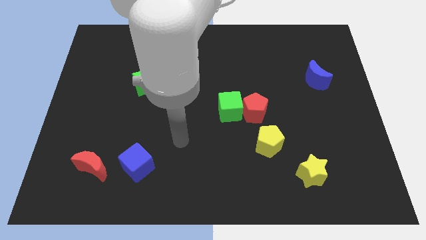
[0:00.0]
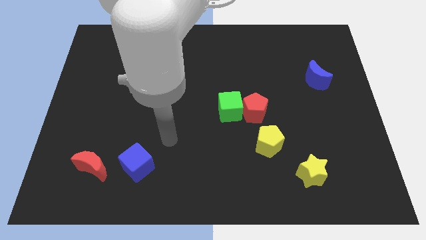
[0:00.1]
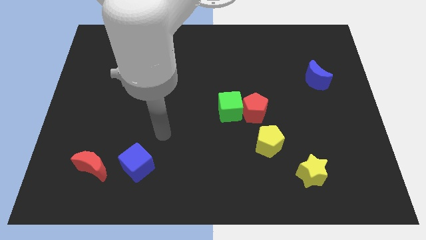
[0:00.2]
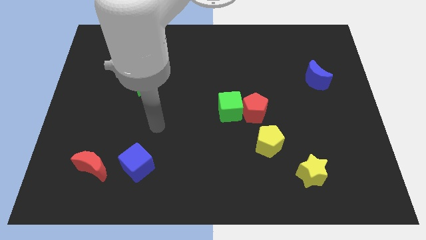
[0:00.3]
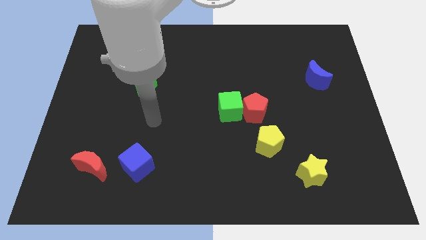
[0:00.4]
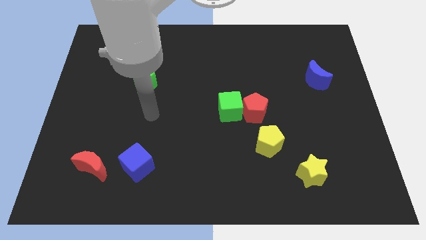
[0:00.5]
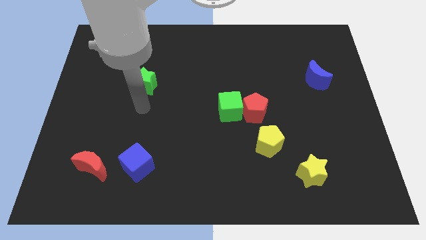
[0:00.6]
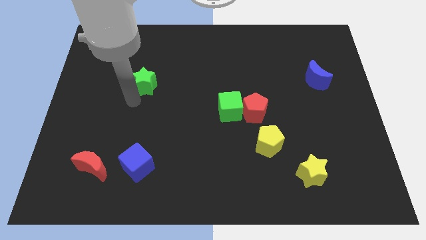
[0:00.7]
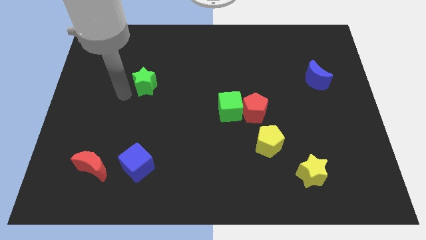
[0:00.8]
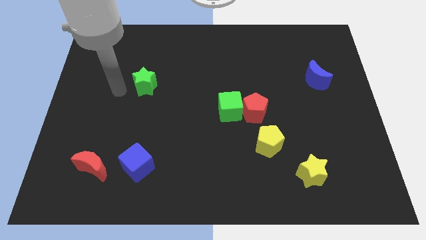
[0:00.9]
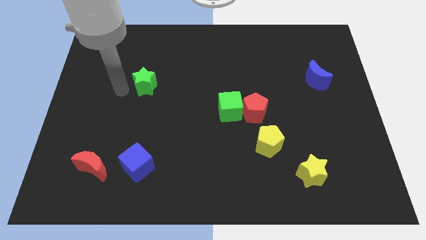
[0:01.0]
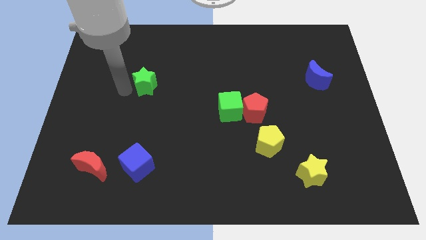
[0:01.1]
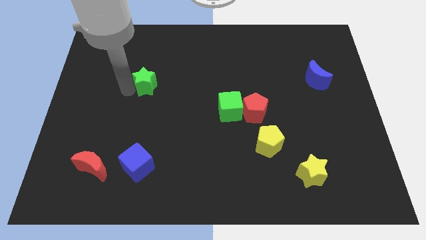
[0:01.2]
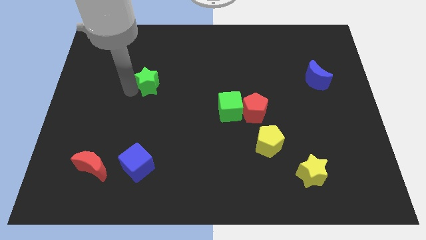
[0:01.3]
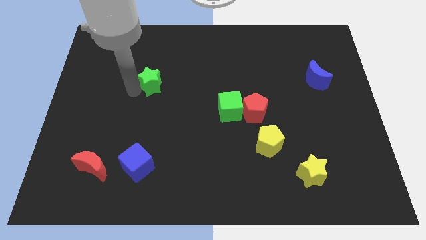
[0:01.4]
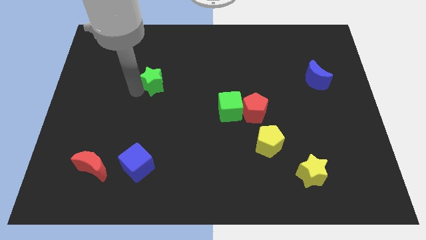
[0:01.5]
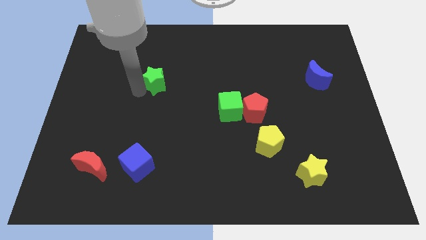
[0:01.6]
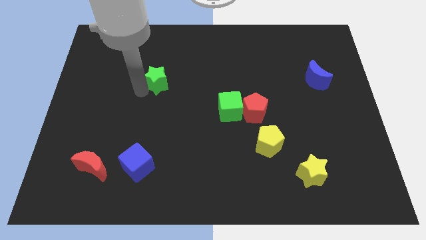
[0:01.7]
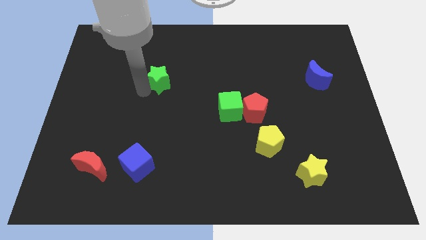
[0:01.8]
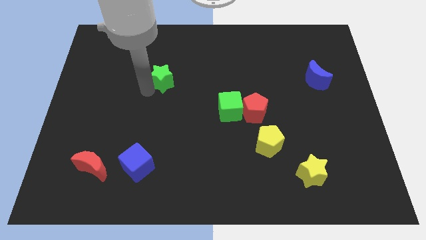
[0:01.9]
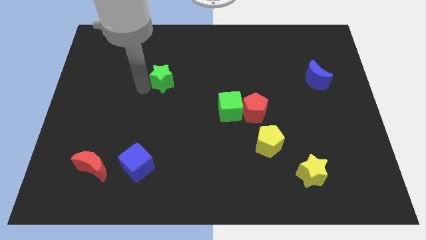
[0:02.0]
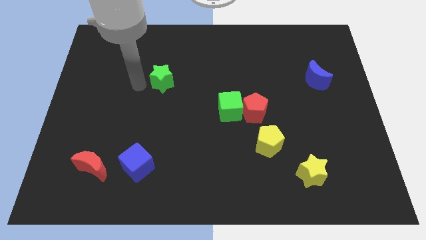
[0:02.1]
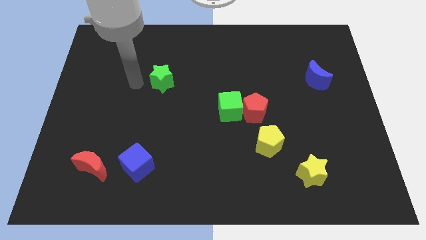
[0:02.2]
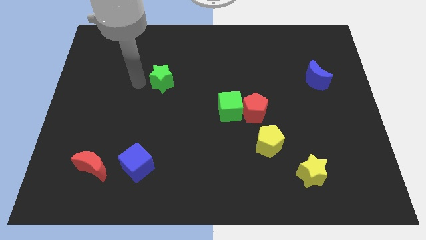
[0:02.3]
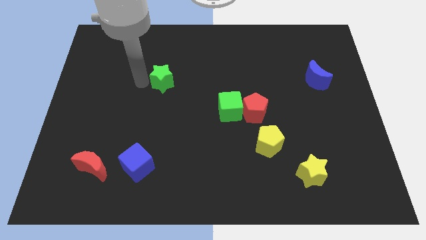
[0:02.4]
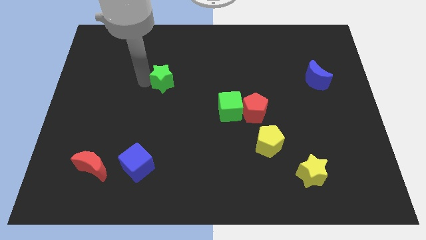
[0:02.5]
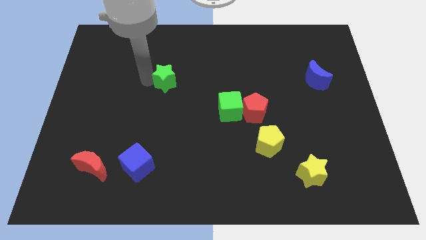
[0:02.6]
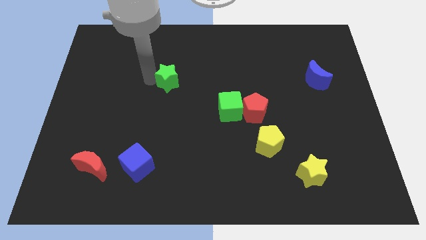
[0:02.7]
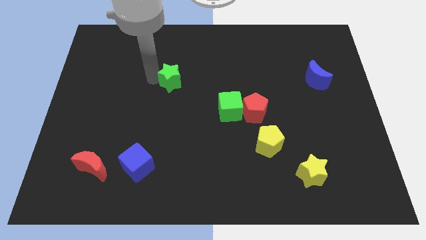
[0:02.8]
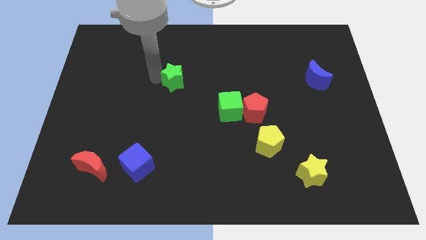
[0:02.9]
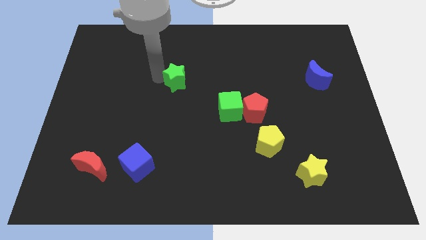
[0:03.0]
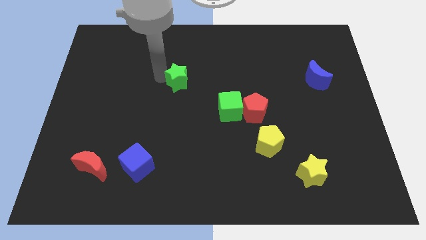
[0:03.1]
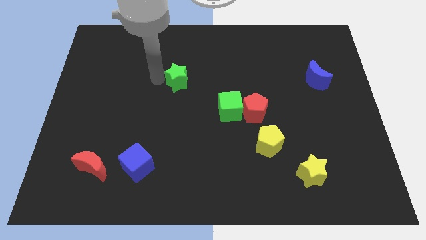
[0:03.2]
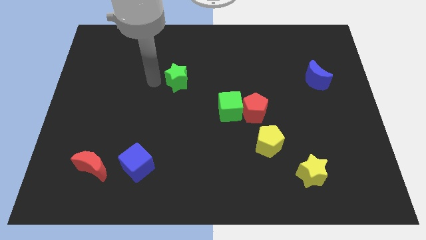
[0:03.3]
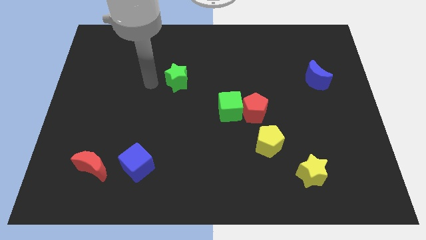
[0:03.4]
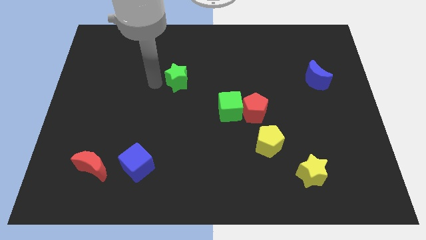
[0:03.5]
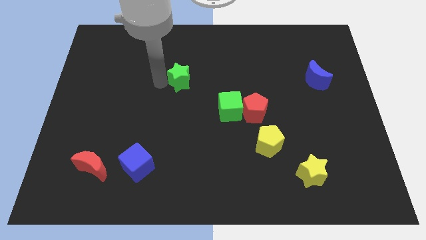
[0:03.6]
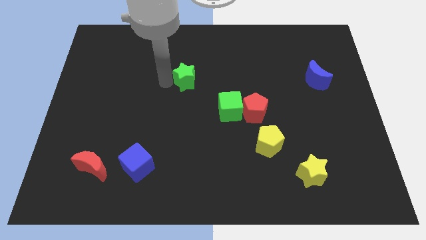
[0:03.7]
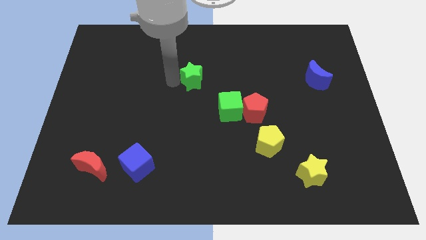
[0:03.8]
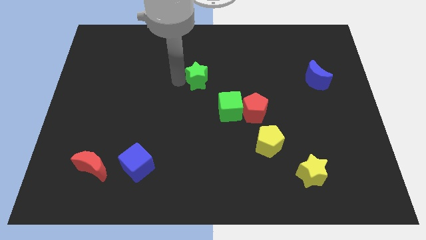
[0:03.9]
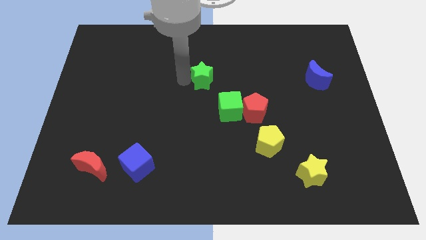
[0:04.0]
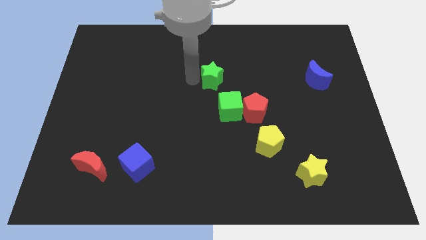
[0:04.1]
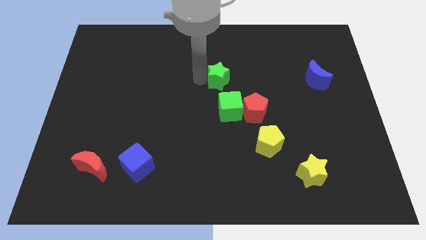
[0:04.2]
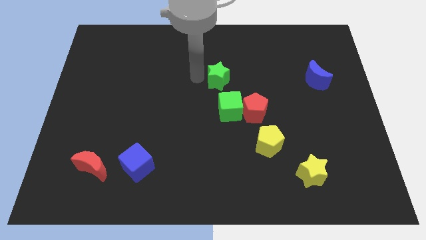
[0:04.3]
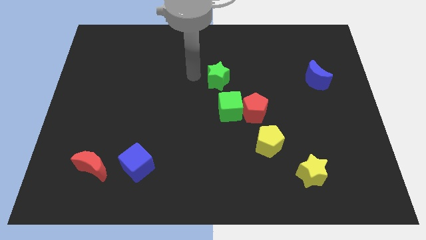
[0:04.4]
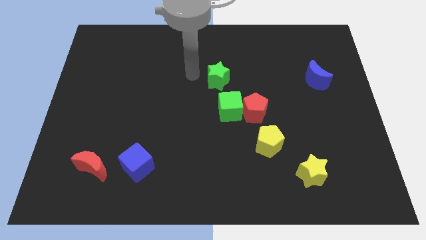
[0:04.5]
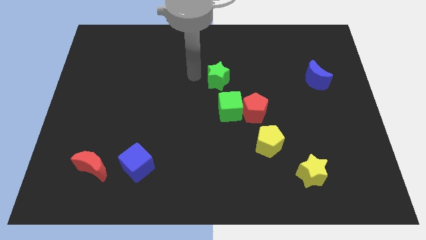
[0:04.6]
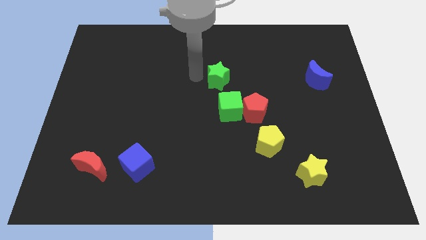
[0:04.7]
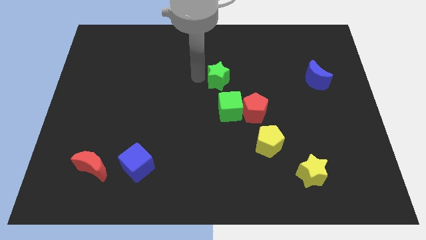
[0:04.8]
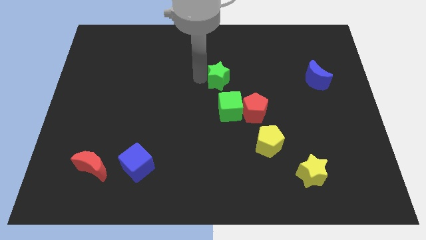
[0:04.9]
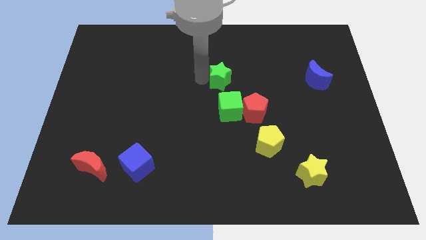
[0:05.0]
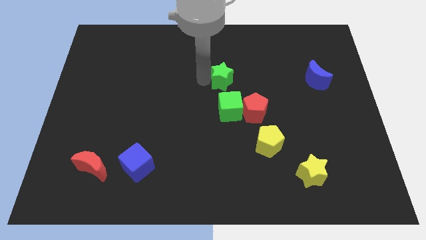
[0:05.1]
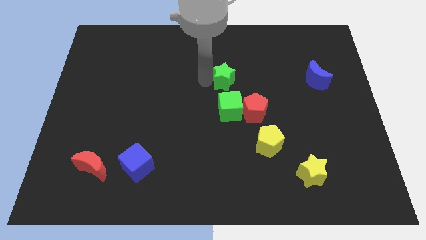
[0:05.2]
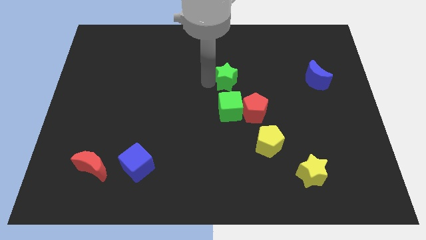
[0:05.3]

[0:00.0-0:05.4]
push the green star to the right

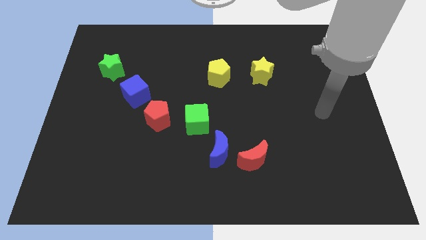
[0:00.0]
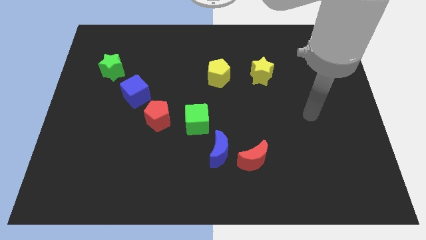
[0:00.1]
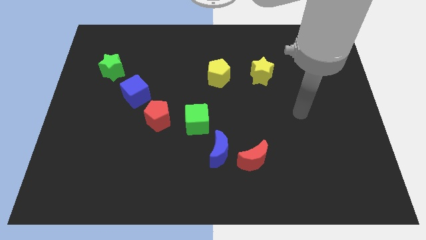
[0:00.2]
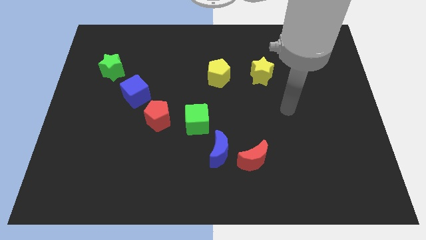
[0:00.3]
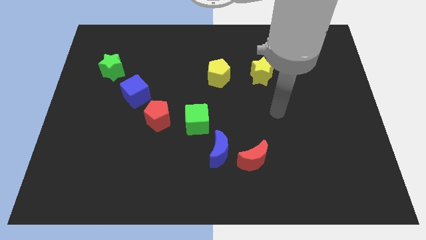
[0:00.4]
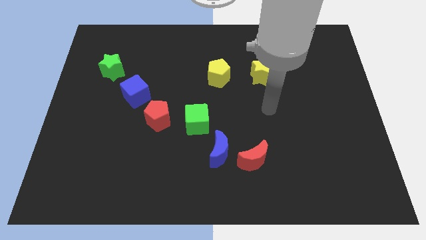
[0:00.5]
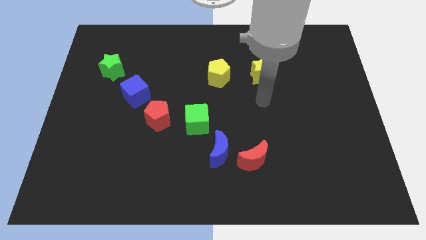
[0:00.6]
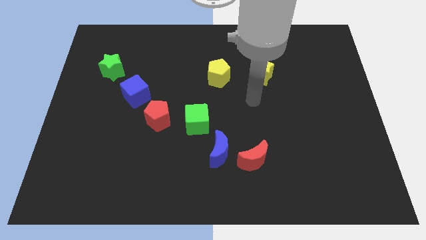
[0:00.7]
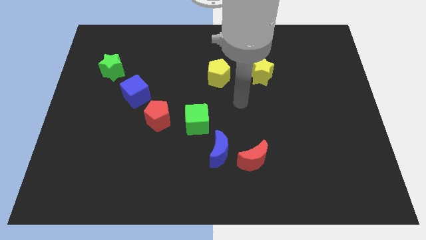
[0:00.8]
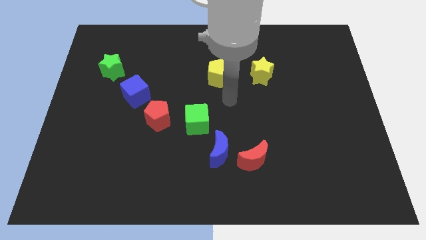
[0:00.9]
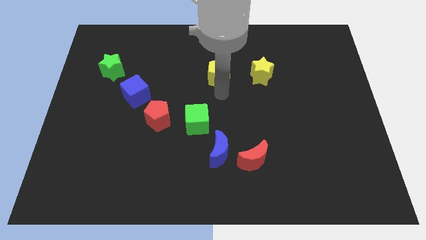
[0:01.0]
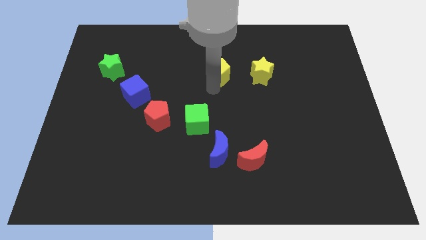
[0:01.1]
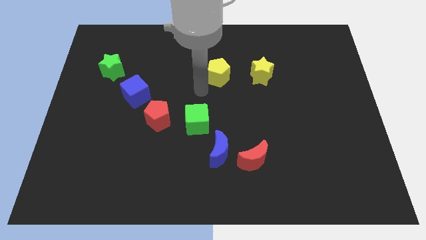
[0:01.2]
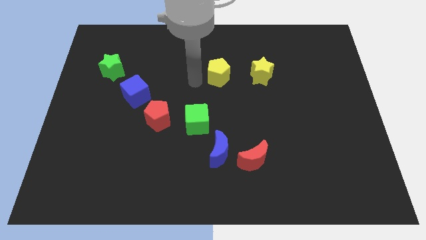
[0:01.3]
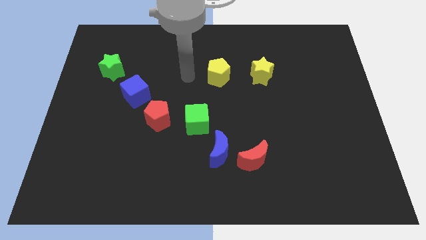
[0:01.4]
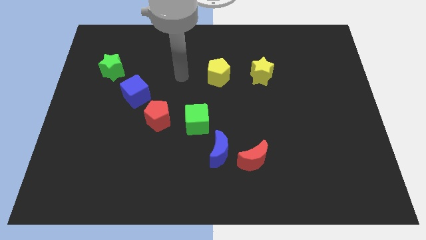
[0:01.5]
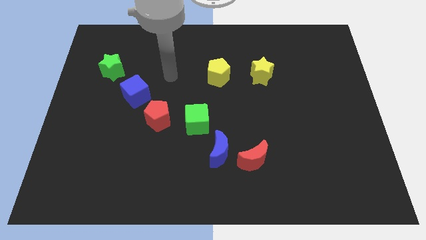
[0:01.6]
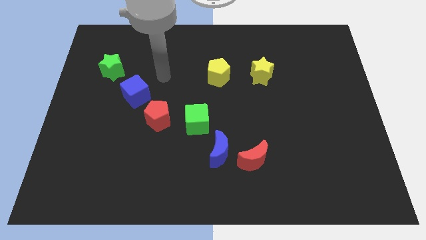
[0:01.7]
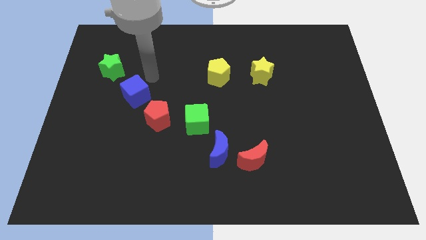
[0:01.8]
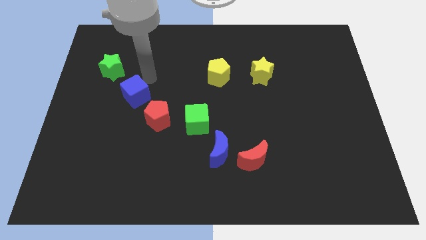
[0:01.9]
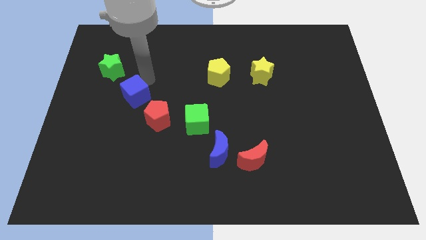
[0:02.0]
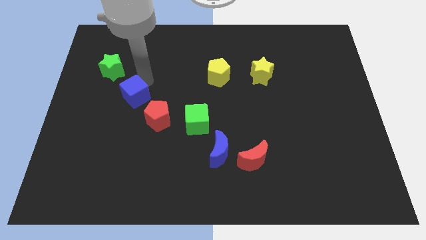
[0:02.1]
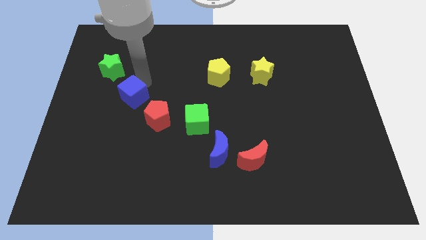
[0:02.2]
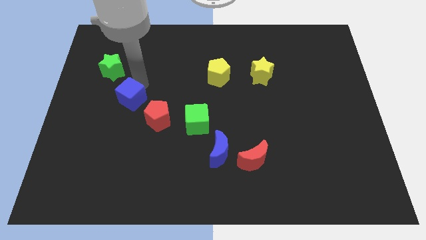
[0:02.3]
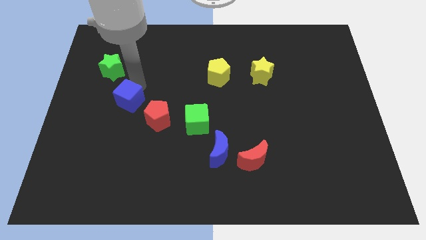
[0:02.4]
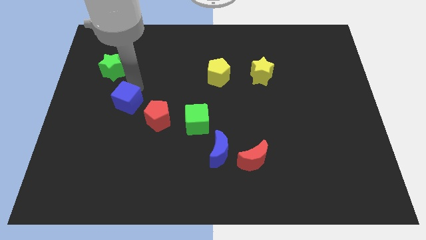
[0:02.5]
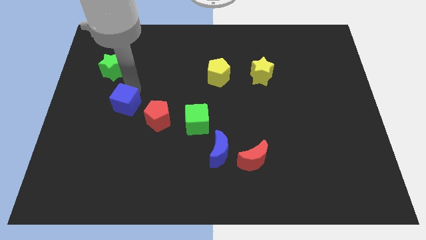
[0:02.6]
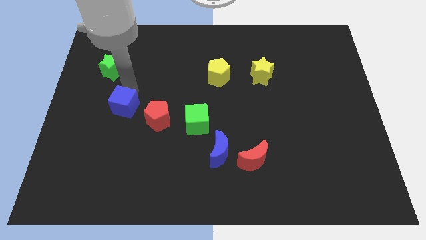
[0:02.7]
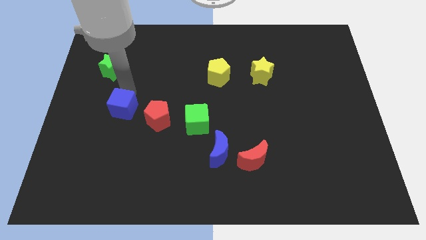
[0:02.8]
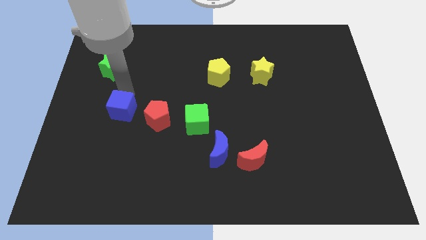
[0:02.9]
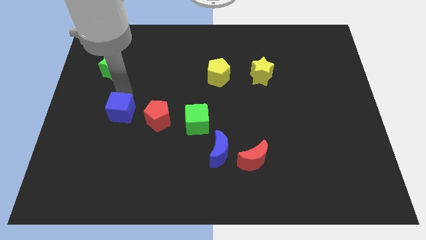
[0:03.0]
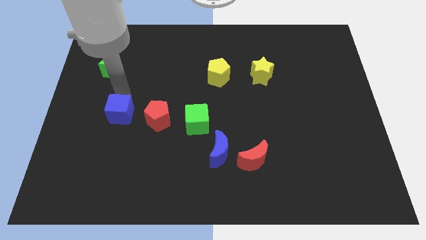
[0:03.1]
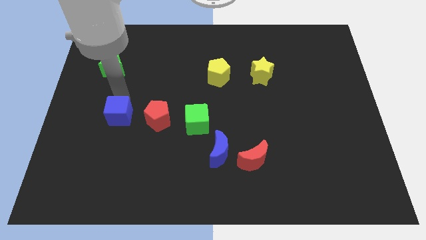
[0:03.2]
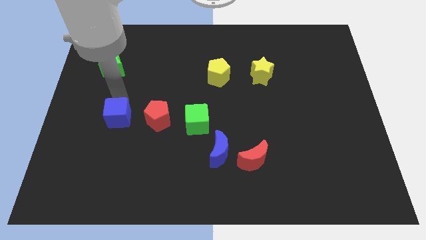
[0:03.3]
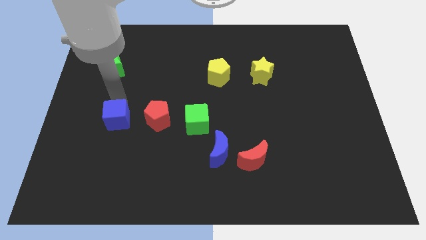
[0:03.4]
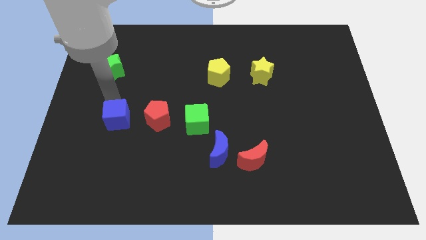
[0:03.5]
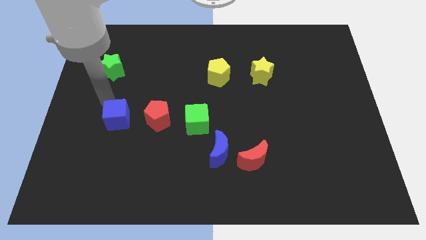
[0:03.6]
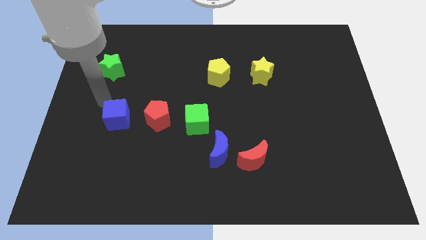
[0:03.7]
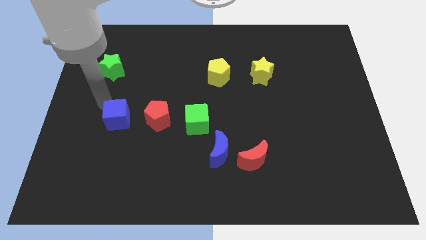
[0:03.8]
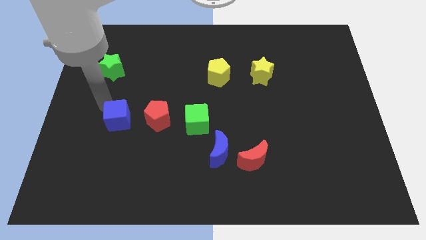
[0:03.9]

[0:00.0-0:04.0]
slide the blue cube a bit downwards
